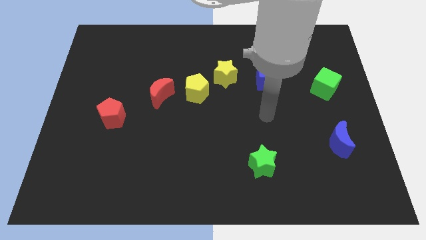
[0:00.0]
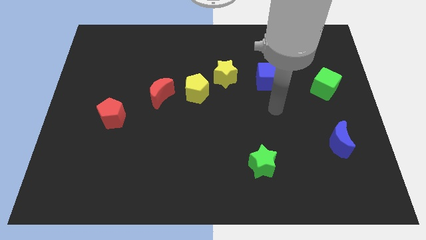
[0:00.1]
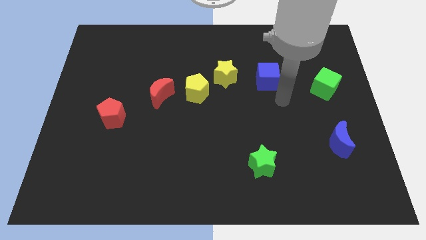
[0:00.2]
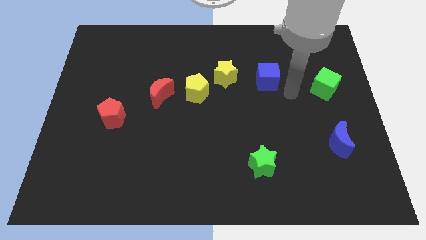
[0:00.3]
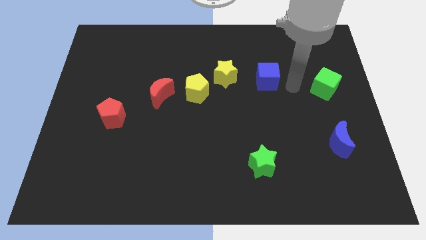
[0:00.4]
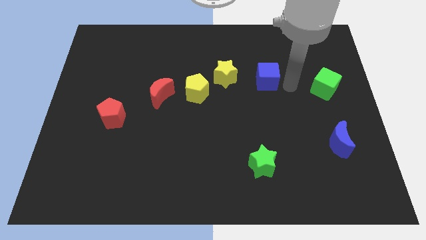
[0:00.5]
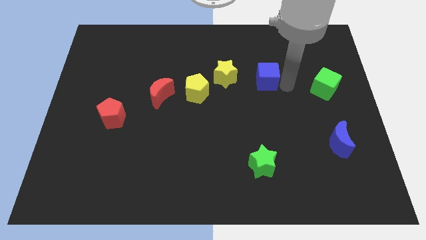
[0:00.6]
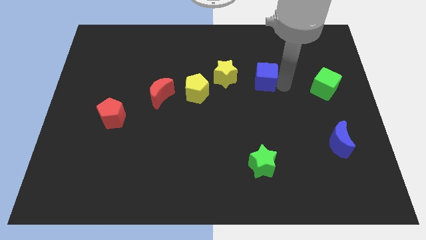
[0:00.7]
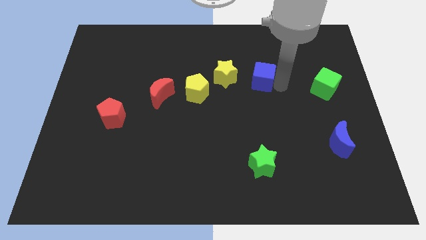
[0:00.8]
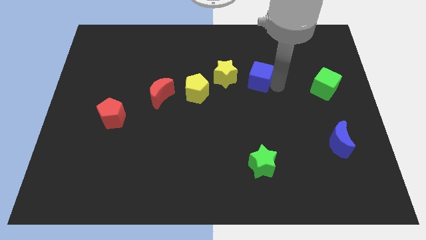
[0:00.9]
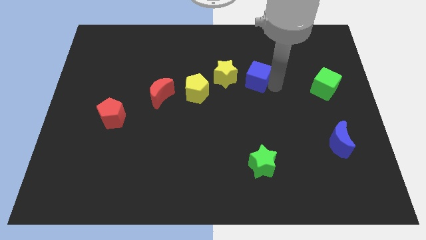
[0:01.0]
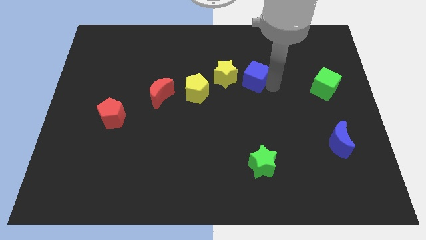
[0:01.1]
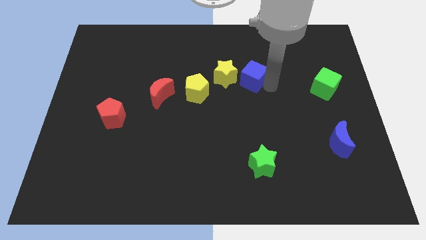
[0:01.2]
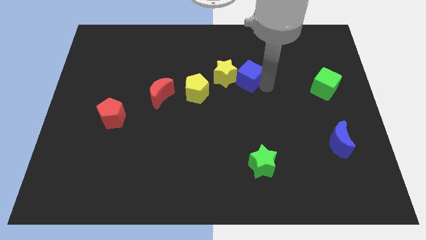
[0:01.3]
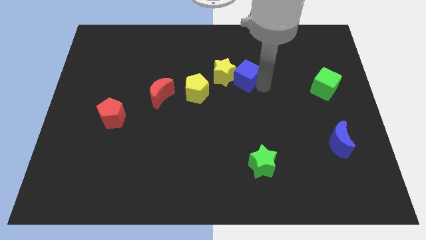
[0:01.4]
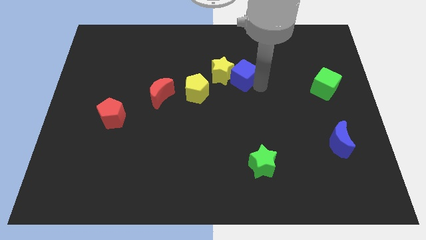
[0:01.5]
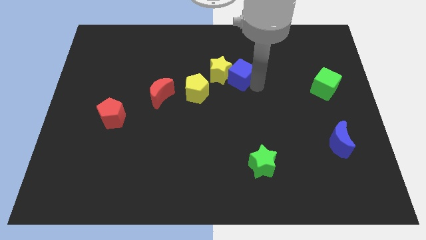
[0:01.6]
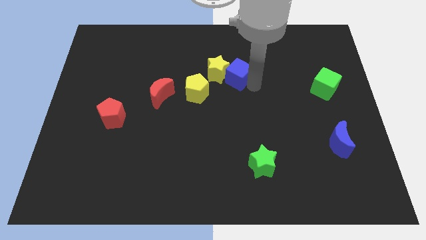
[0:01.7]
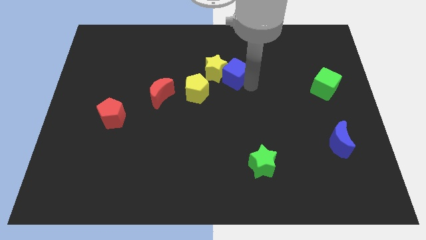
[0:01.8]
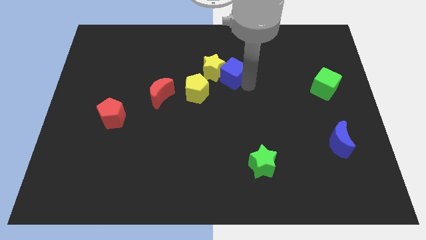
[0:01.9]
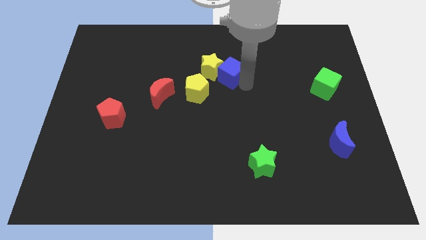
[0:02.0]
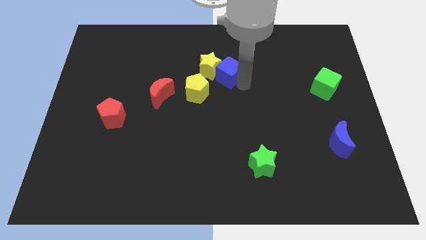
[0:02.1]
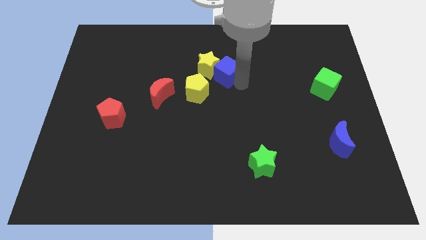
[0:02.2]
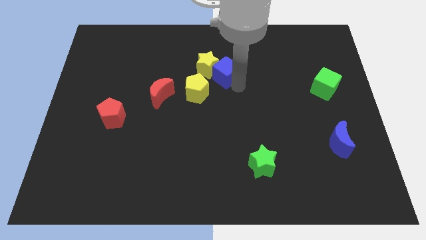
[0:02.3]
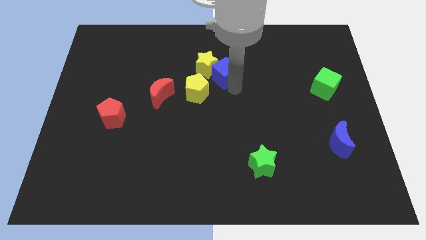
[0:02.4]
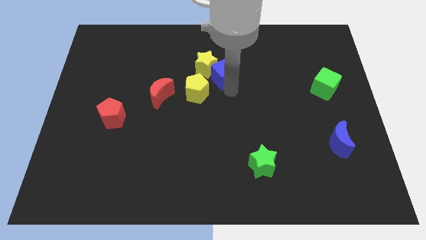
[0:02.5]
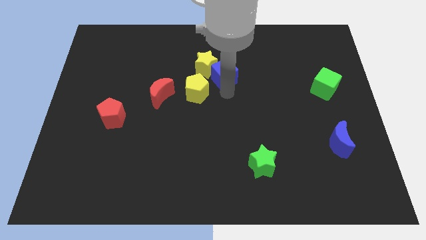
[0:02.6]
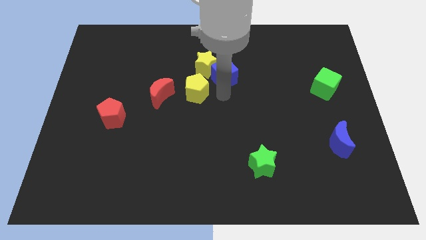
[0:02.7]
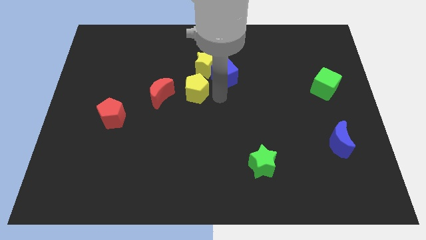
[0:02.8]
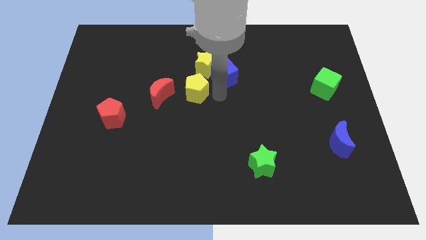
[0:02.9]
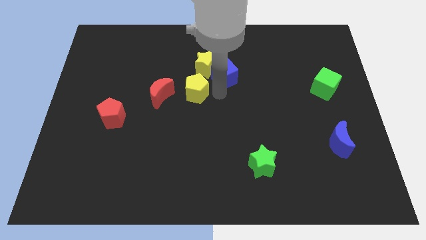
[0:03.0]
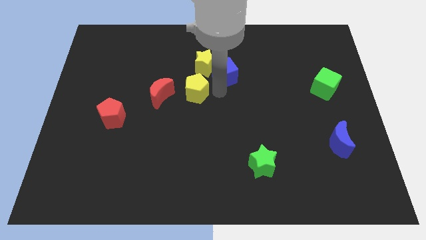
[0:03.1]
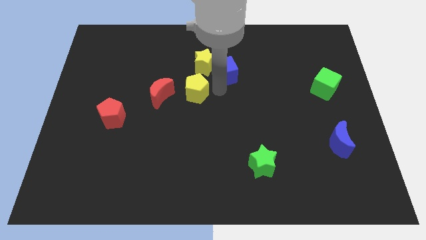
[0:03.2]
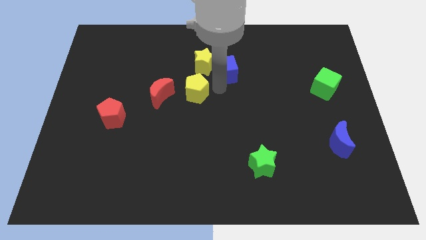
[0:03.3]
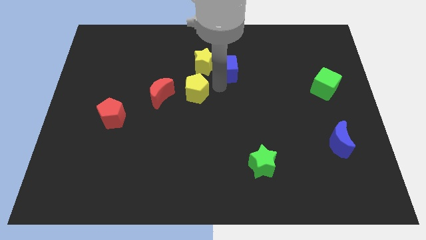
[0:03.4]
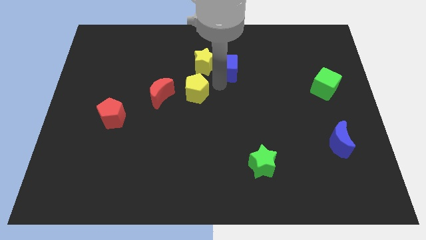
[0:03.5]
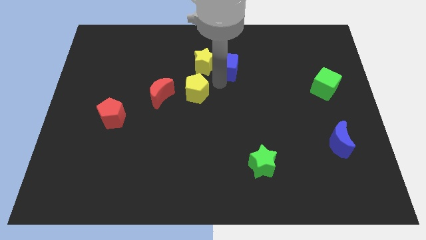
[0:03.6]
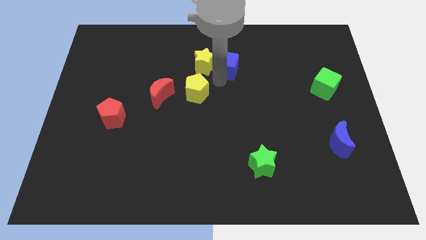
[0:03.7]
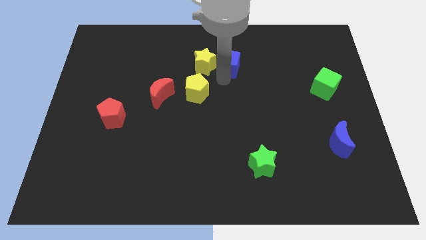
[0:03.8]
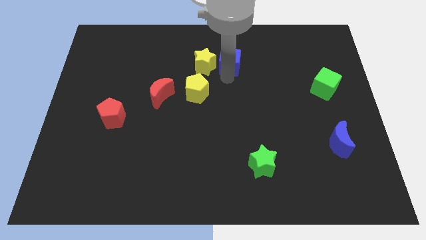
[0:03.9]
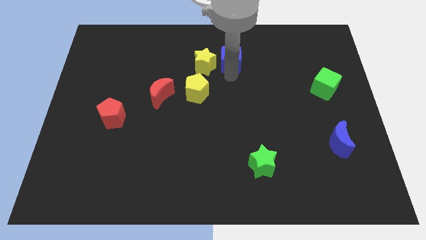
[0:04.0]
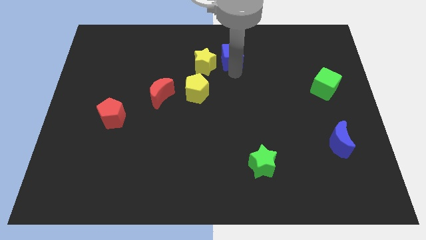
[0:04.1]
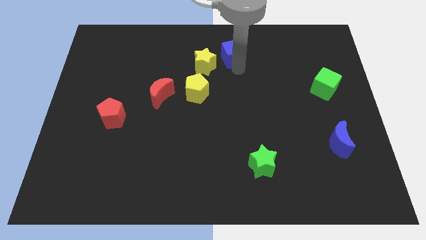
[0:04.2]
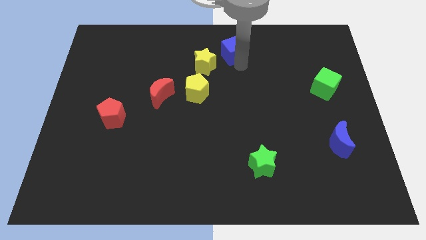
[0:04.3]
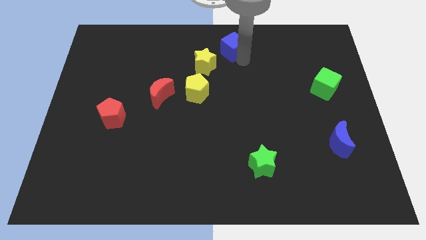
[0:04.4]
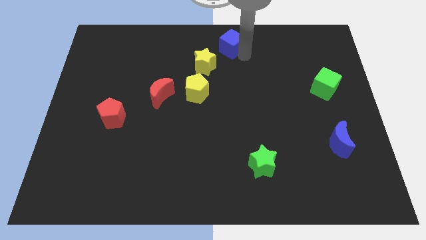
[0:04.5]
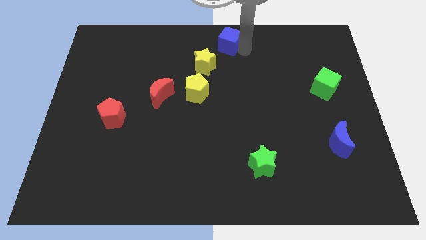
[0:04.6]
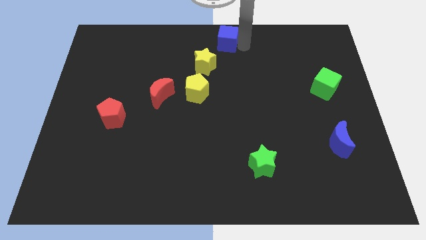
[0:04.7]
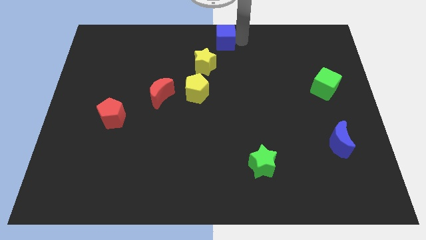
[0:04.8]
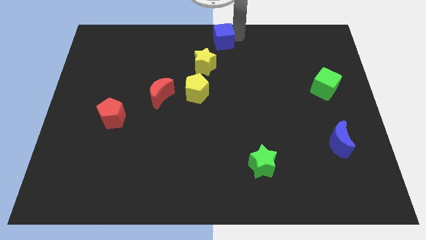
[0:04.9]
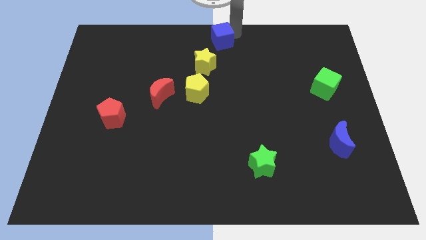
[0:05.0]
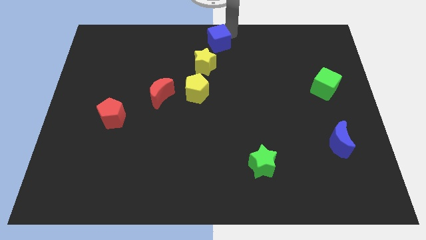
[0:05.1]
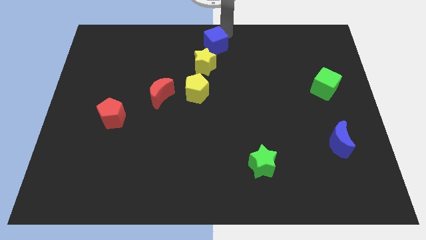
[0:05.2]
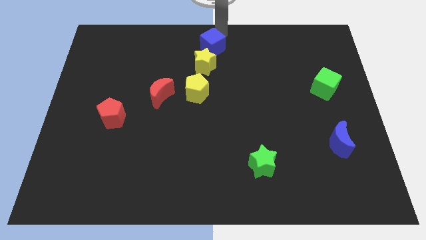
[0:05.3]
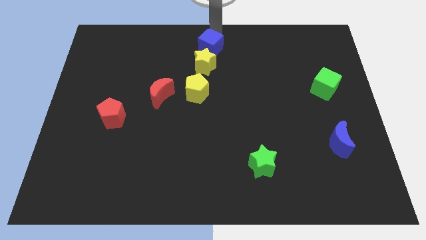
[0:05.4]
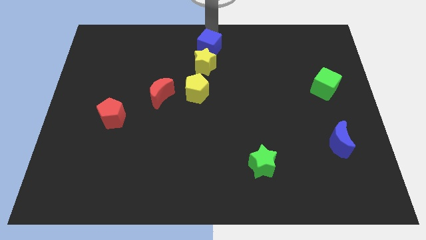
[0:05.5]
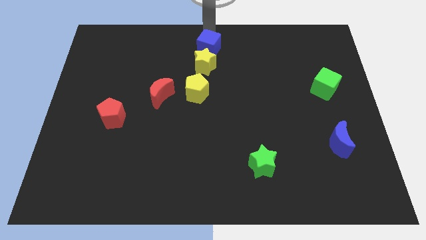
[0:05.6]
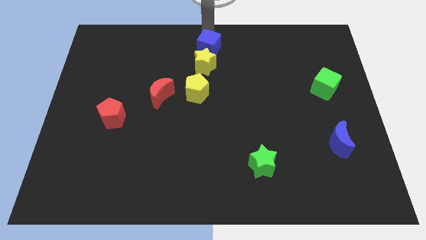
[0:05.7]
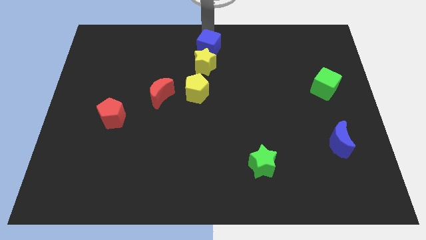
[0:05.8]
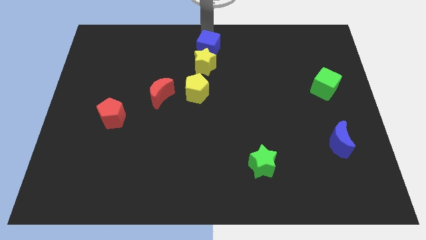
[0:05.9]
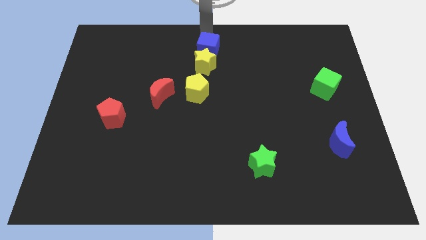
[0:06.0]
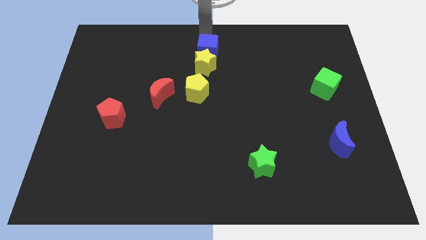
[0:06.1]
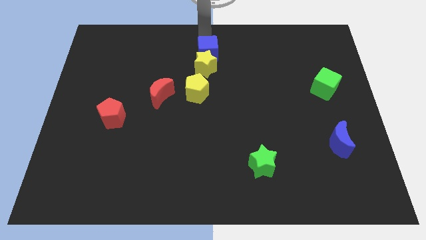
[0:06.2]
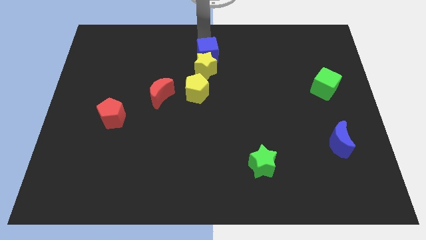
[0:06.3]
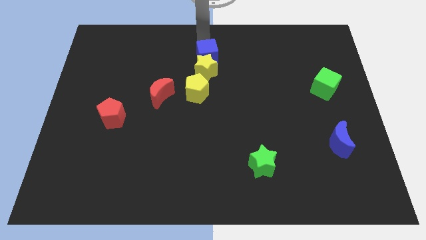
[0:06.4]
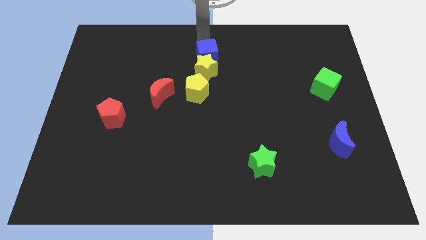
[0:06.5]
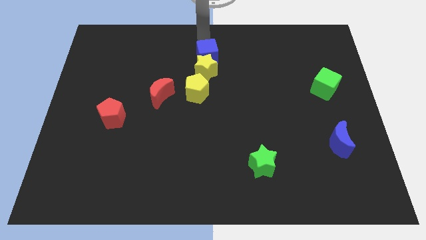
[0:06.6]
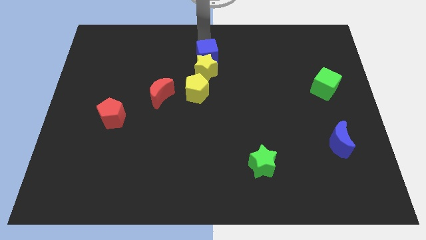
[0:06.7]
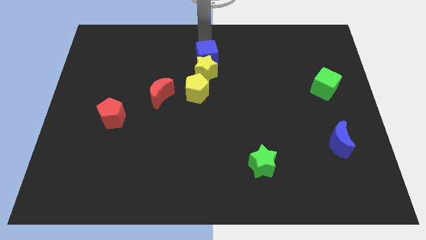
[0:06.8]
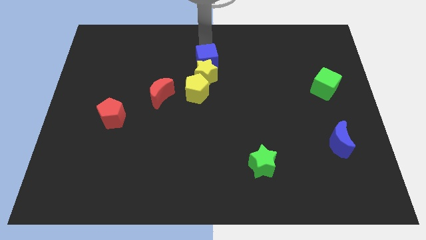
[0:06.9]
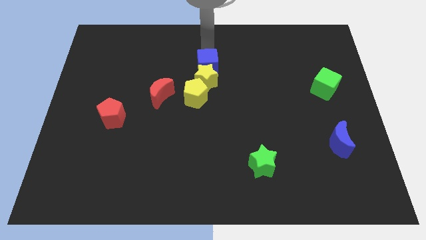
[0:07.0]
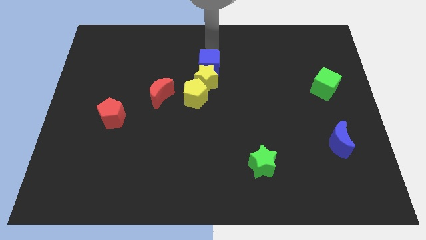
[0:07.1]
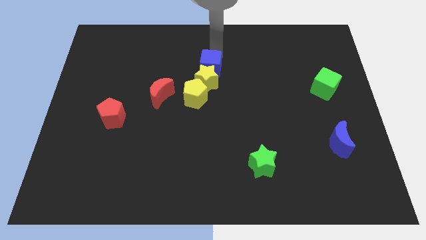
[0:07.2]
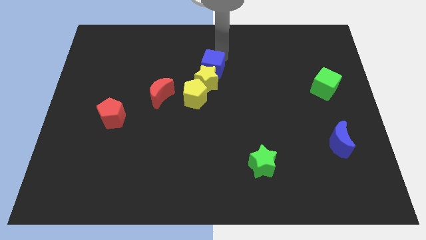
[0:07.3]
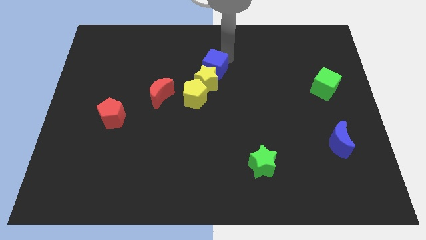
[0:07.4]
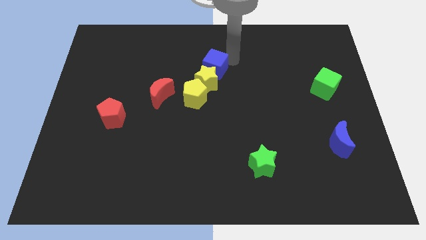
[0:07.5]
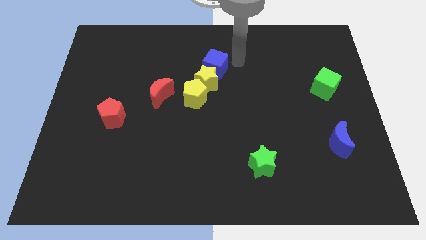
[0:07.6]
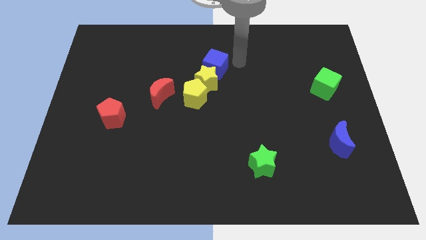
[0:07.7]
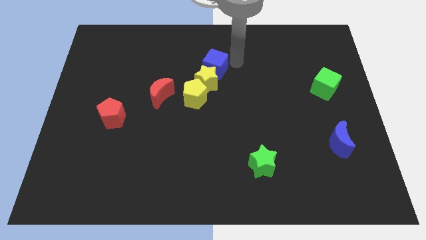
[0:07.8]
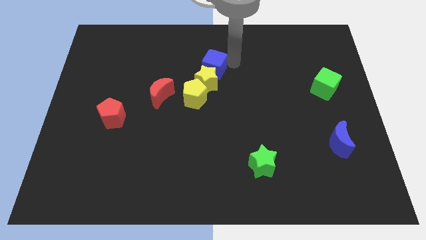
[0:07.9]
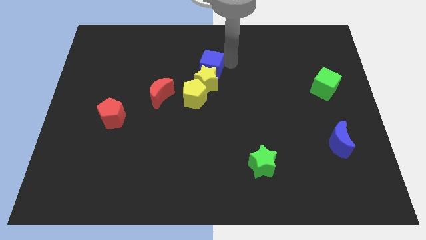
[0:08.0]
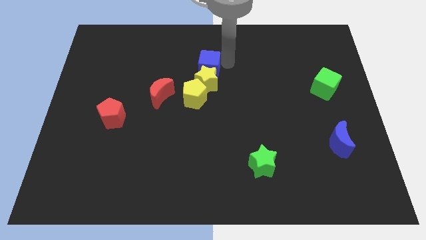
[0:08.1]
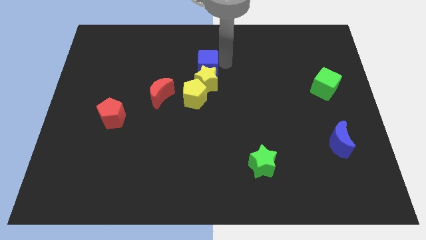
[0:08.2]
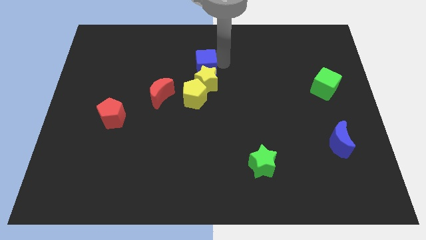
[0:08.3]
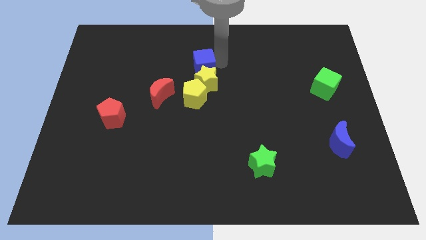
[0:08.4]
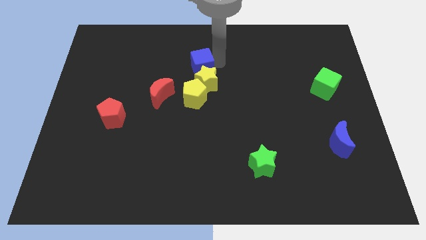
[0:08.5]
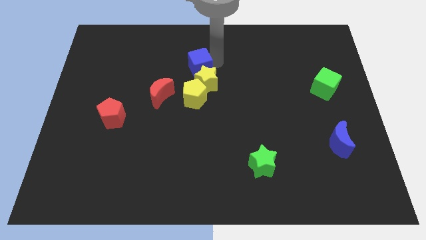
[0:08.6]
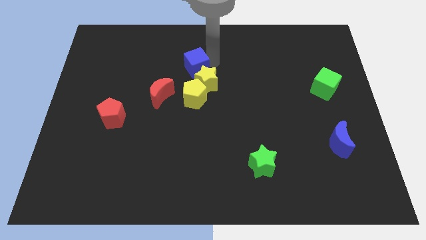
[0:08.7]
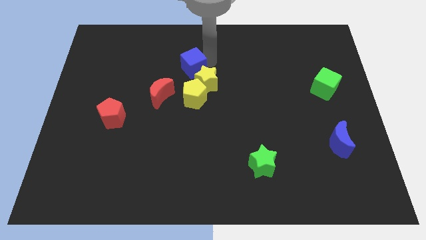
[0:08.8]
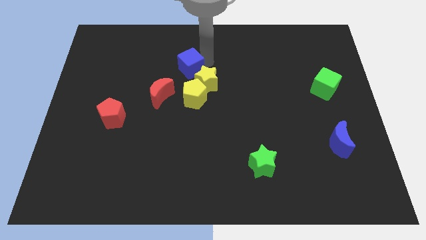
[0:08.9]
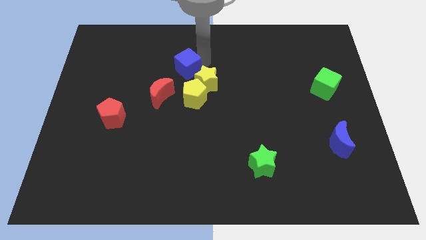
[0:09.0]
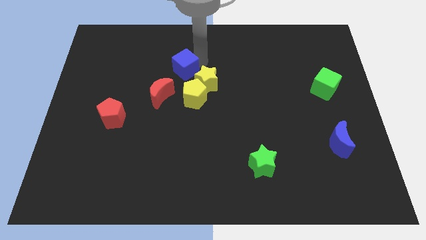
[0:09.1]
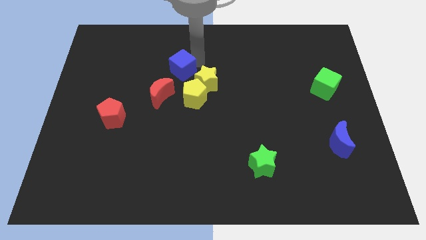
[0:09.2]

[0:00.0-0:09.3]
push the blue cube diagonally up and to the left of the yellow pentagon
